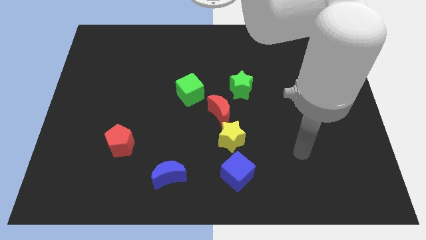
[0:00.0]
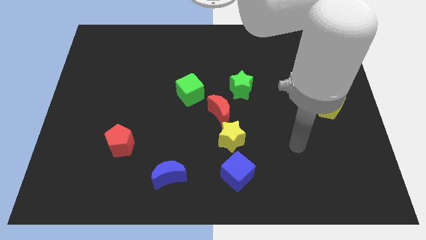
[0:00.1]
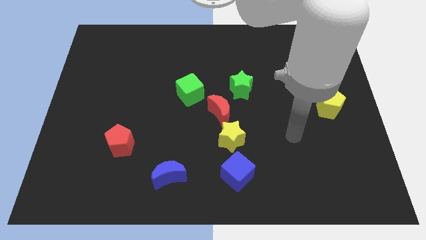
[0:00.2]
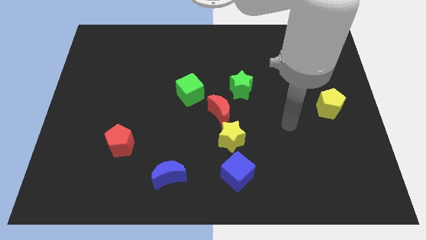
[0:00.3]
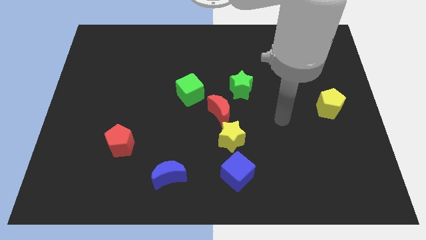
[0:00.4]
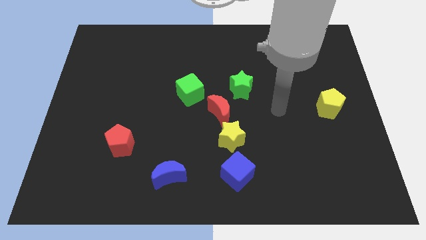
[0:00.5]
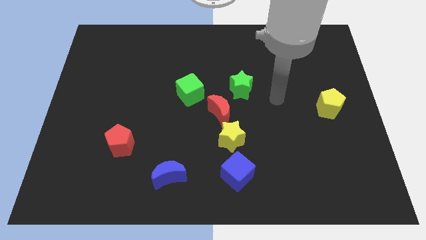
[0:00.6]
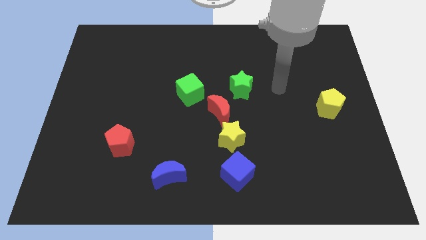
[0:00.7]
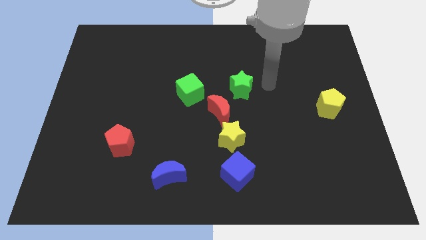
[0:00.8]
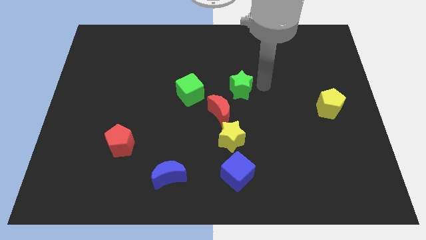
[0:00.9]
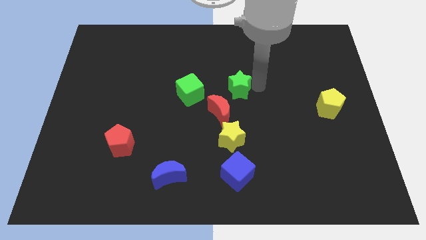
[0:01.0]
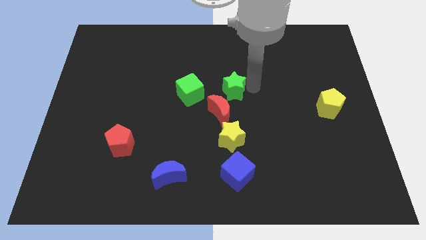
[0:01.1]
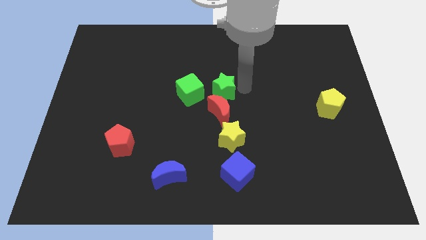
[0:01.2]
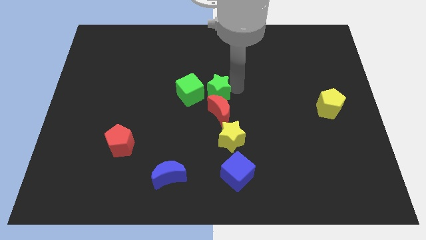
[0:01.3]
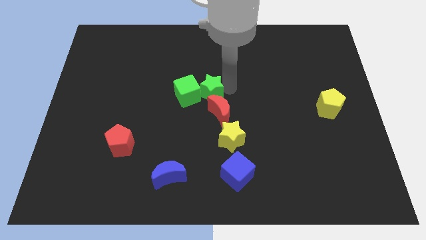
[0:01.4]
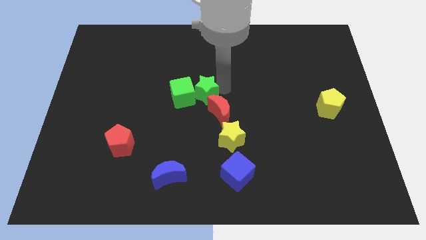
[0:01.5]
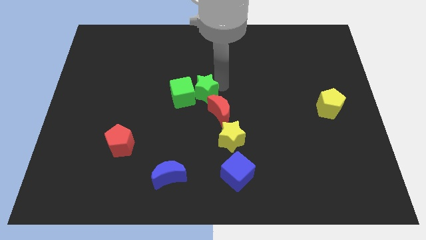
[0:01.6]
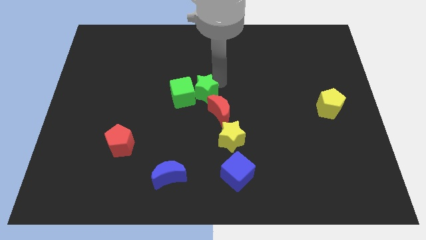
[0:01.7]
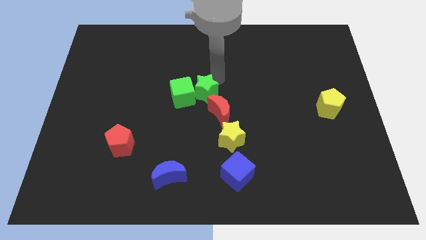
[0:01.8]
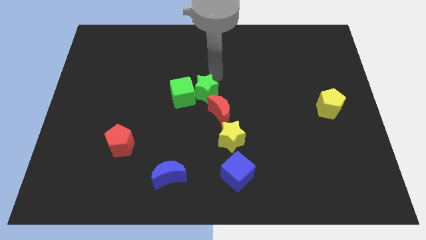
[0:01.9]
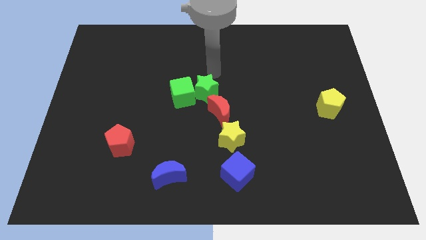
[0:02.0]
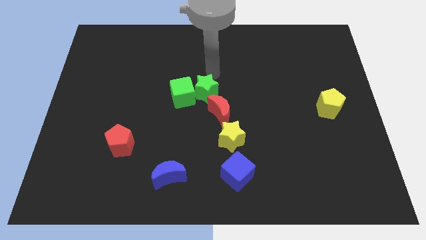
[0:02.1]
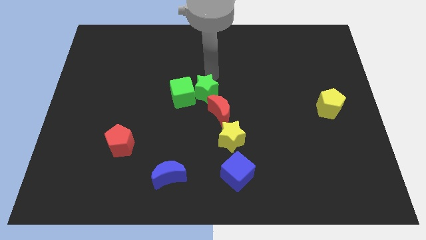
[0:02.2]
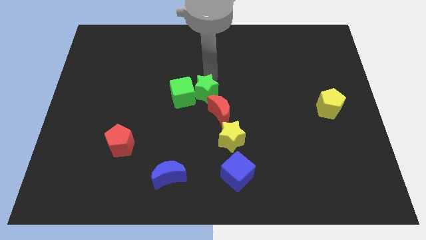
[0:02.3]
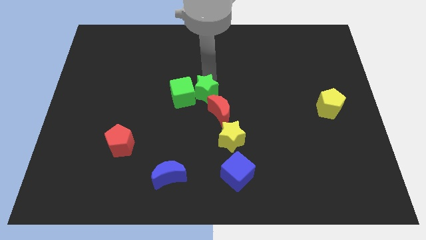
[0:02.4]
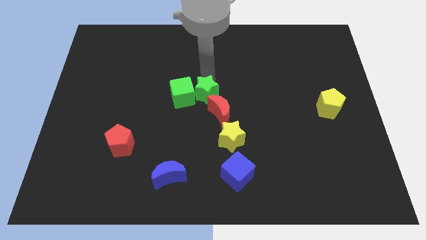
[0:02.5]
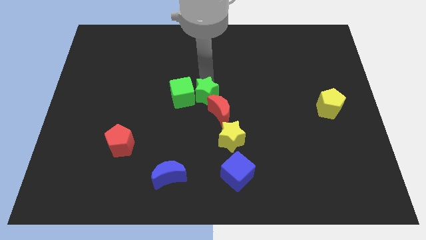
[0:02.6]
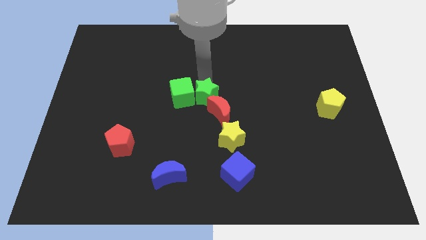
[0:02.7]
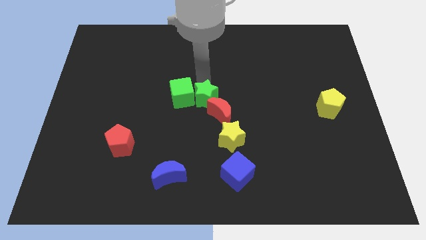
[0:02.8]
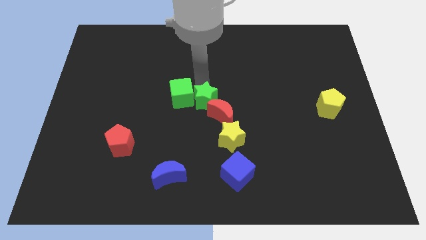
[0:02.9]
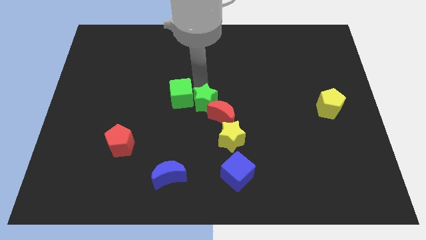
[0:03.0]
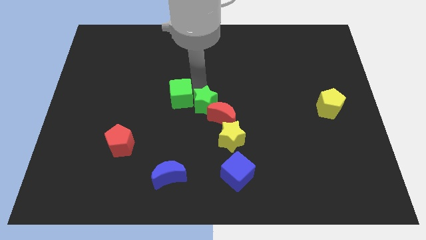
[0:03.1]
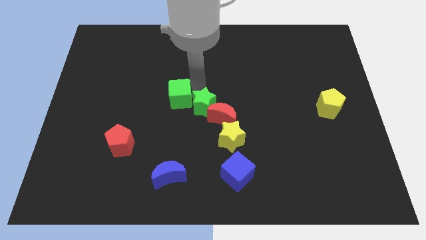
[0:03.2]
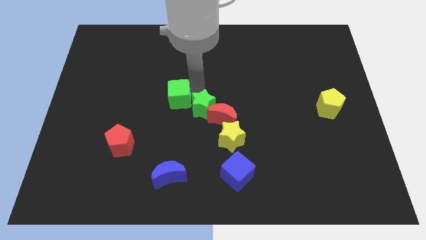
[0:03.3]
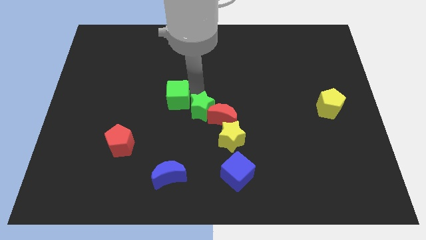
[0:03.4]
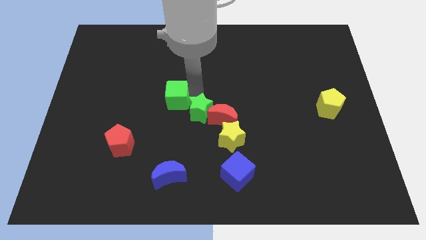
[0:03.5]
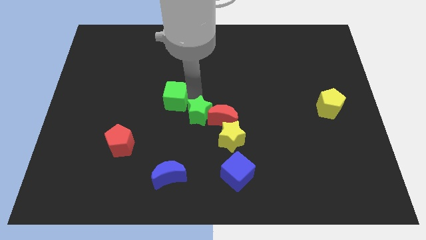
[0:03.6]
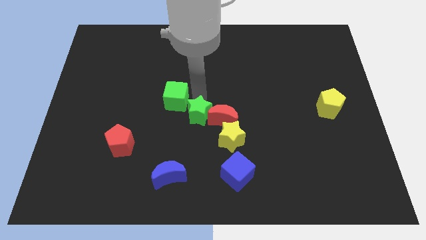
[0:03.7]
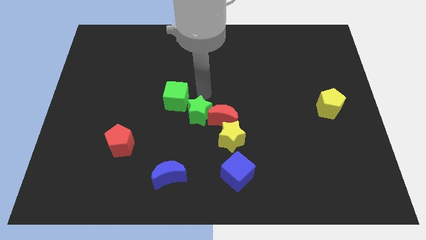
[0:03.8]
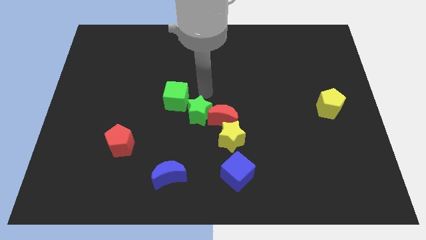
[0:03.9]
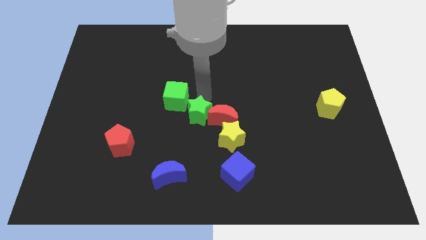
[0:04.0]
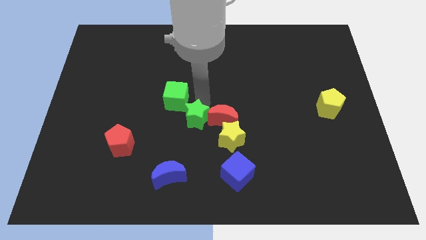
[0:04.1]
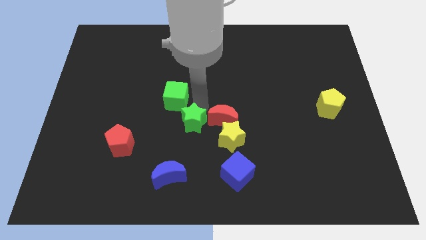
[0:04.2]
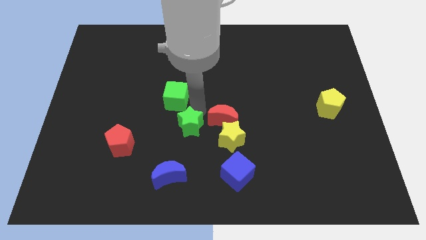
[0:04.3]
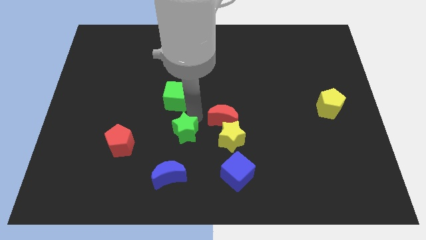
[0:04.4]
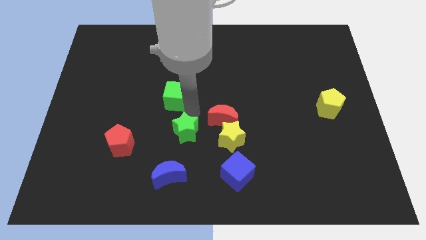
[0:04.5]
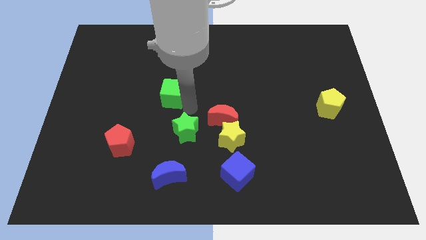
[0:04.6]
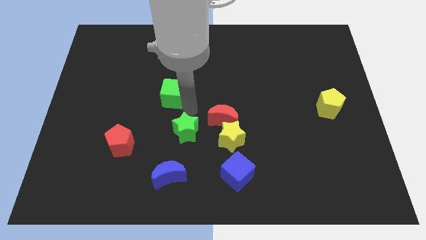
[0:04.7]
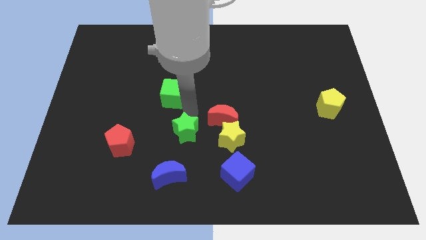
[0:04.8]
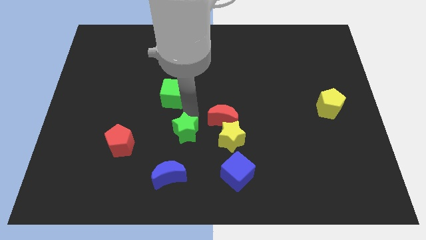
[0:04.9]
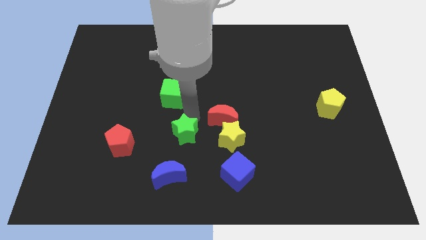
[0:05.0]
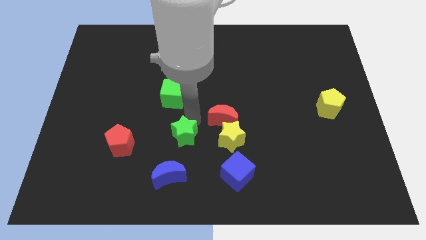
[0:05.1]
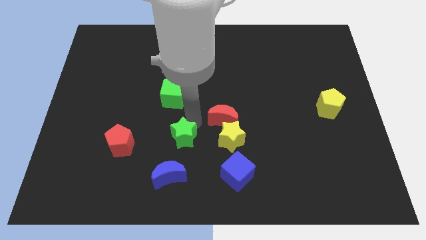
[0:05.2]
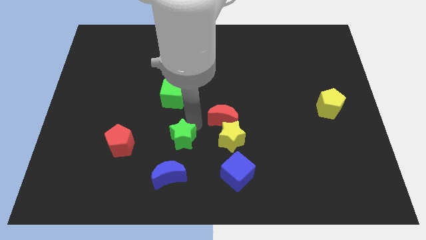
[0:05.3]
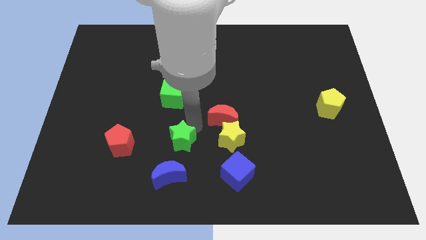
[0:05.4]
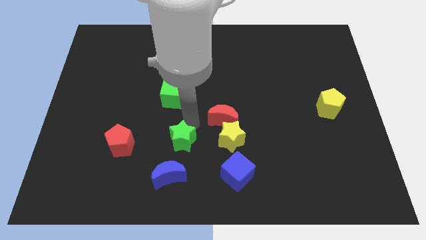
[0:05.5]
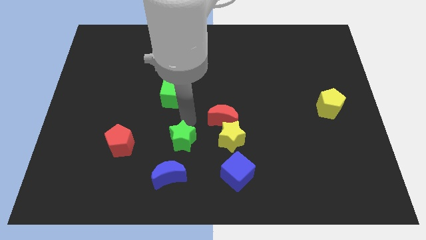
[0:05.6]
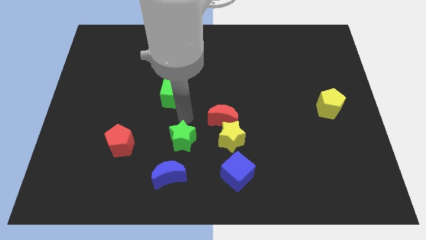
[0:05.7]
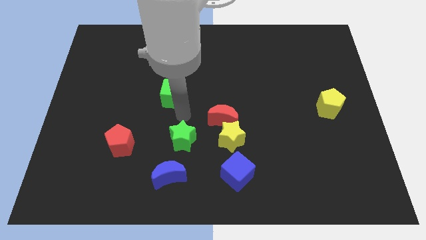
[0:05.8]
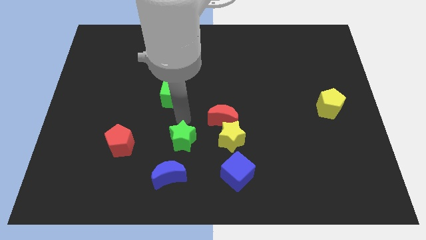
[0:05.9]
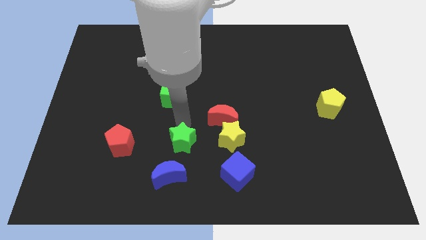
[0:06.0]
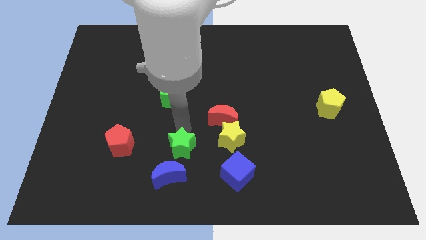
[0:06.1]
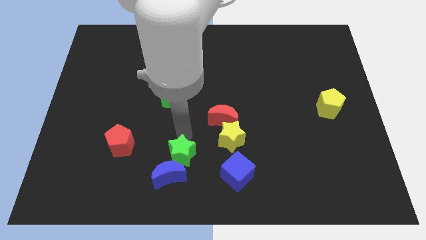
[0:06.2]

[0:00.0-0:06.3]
put the green star towards the blue moon

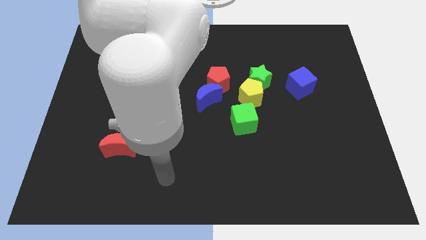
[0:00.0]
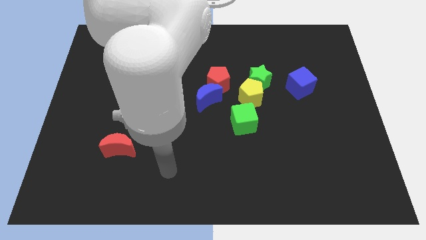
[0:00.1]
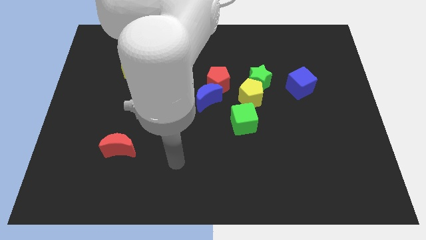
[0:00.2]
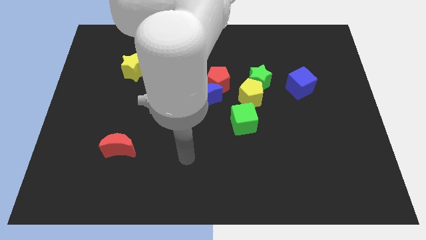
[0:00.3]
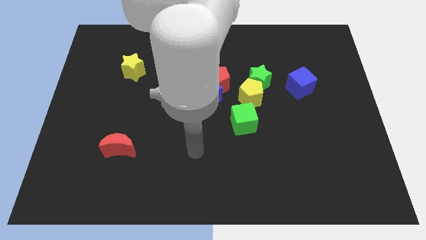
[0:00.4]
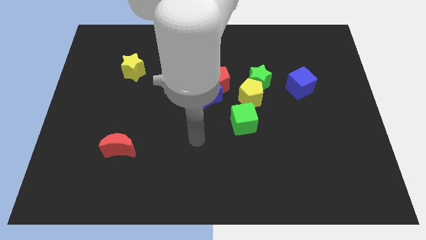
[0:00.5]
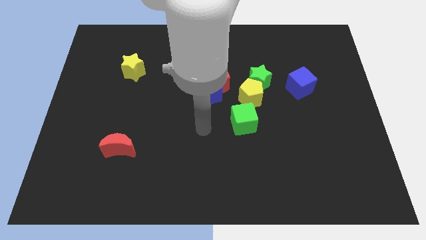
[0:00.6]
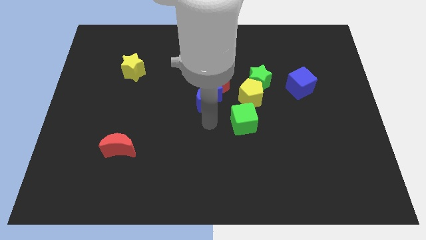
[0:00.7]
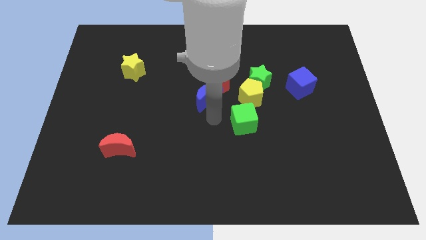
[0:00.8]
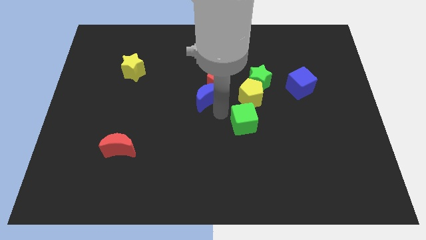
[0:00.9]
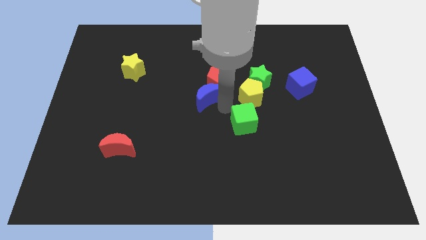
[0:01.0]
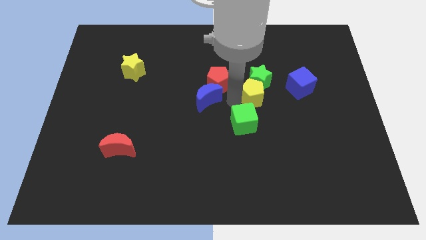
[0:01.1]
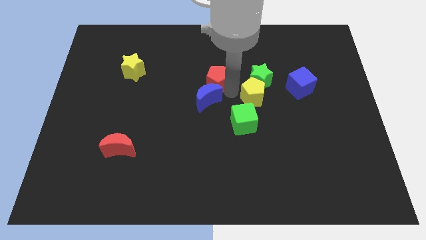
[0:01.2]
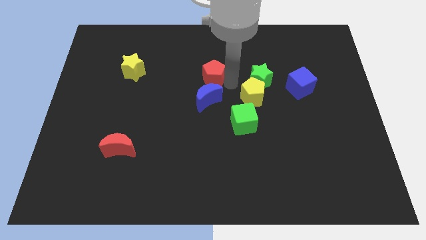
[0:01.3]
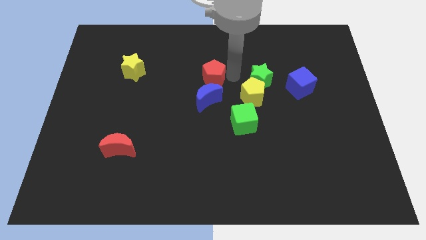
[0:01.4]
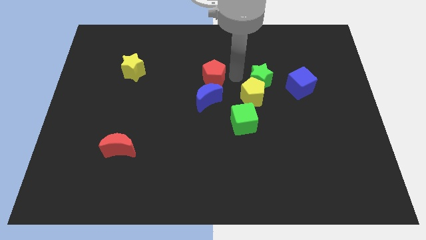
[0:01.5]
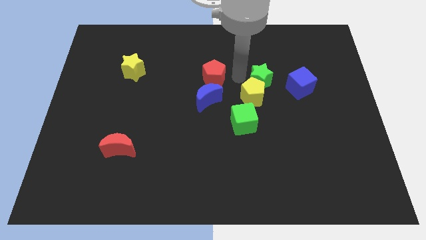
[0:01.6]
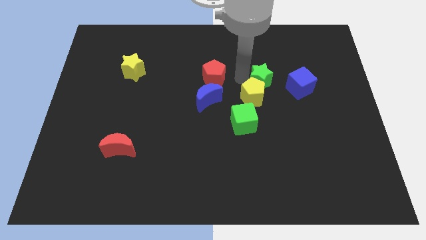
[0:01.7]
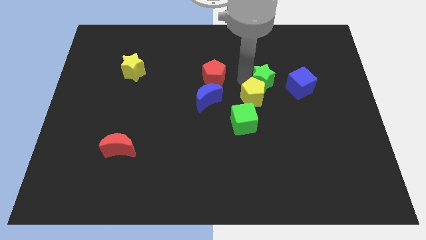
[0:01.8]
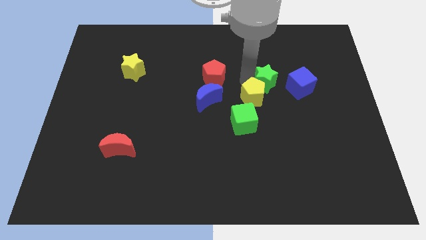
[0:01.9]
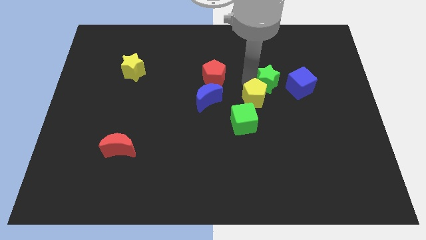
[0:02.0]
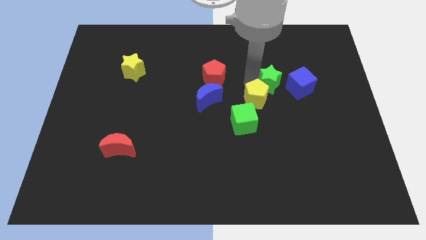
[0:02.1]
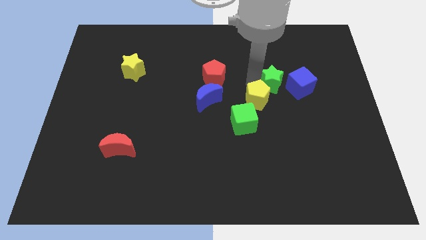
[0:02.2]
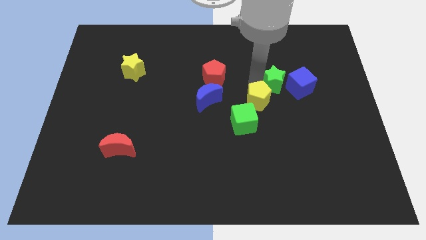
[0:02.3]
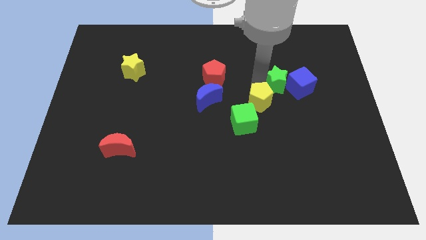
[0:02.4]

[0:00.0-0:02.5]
put the green star close to the blue cube
